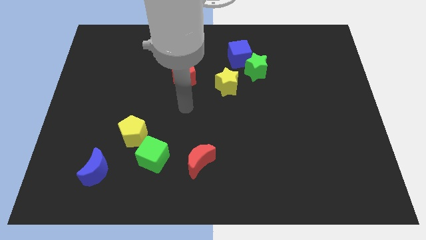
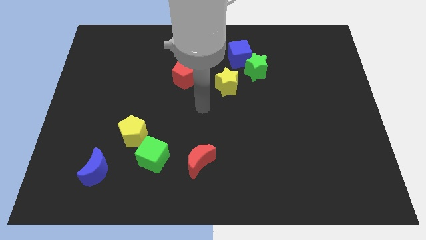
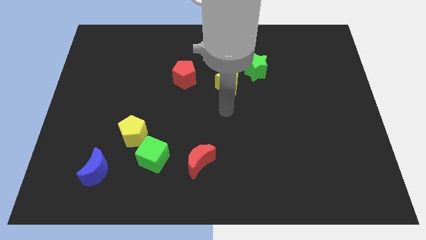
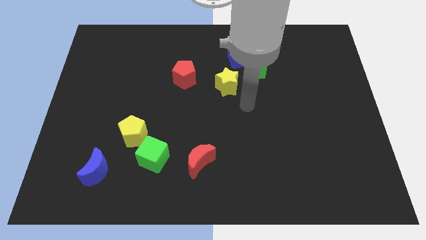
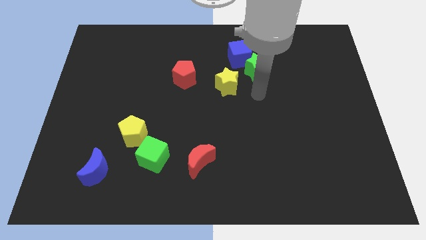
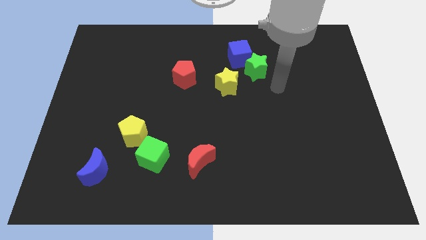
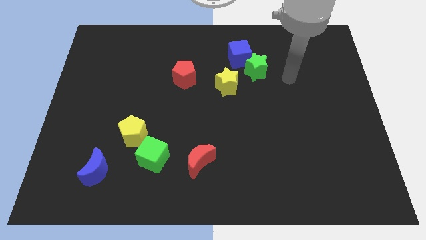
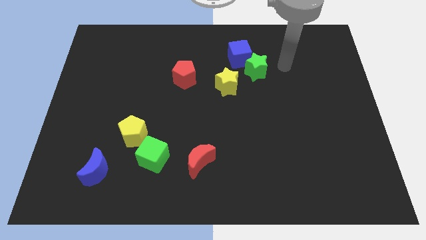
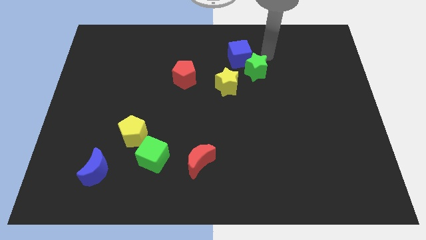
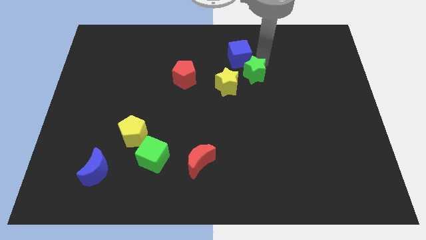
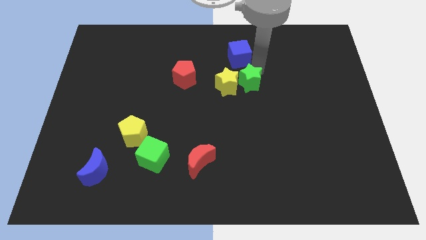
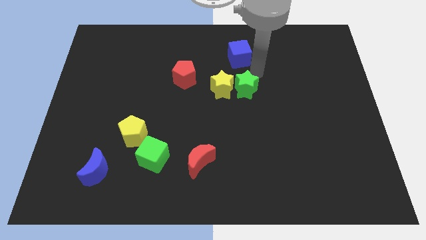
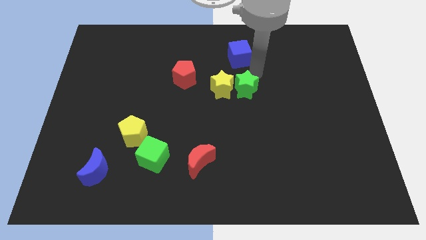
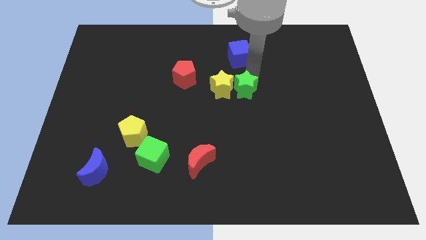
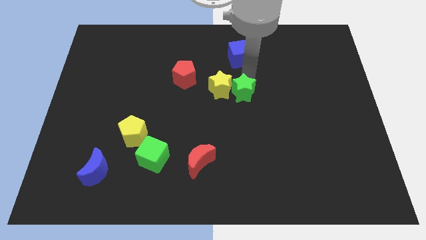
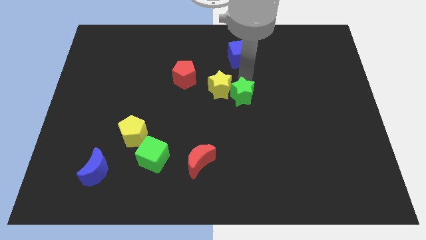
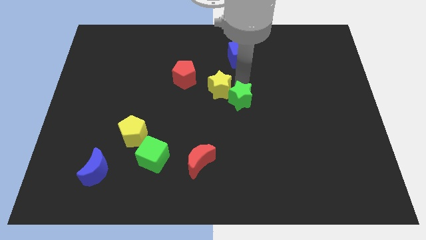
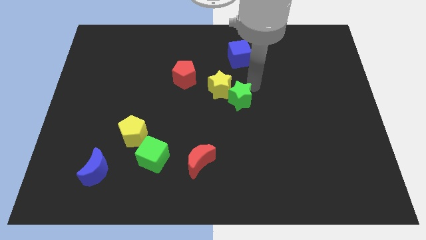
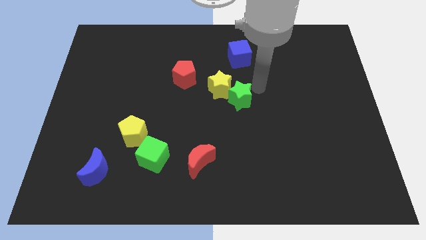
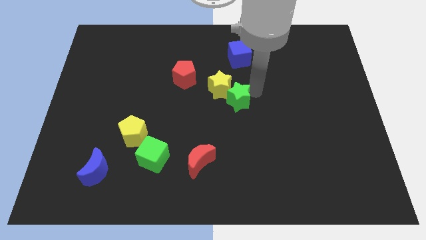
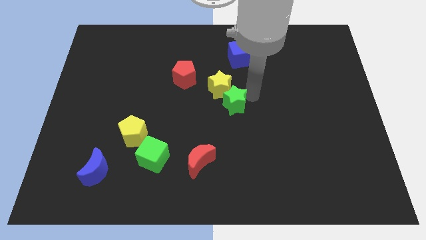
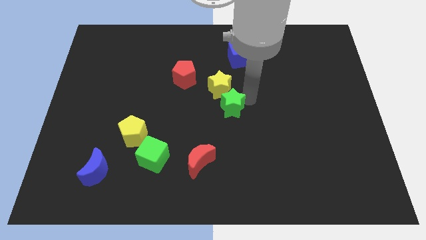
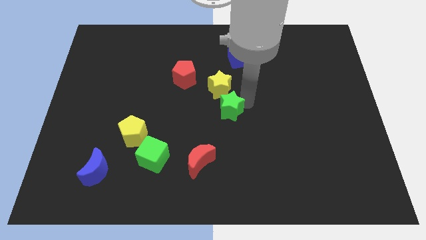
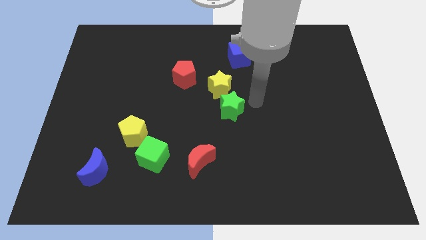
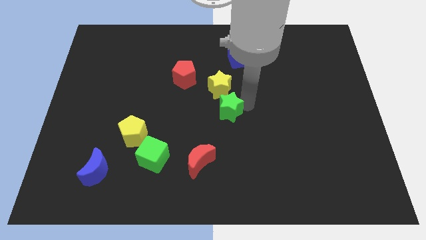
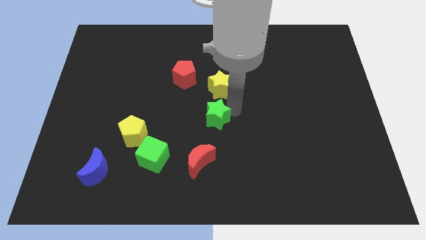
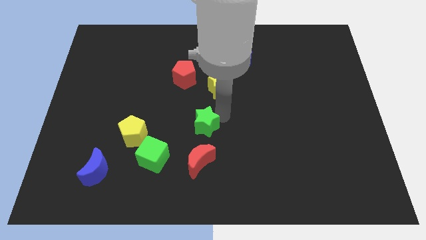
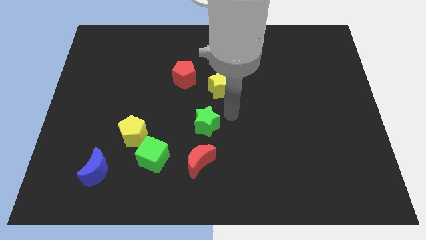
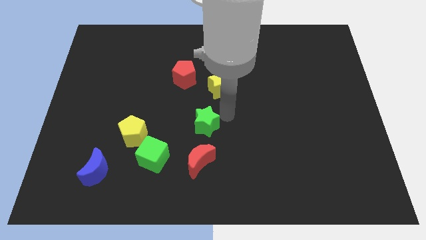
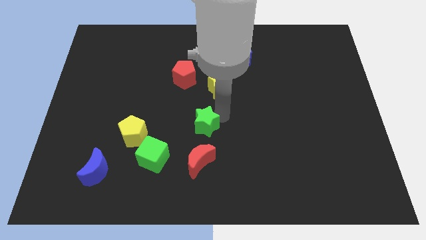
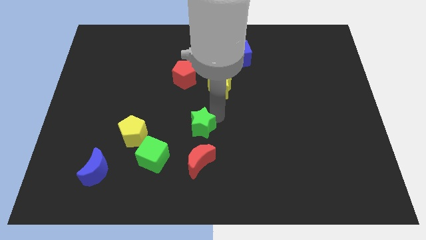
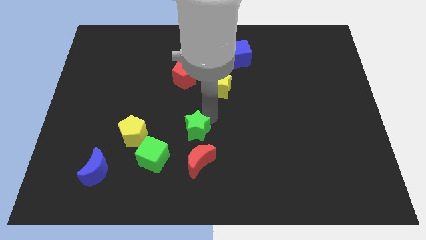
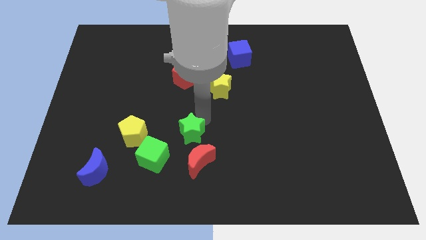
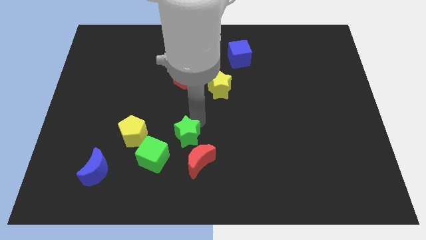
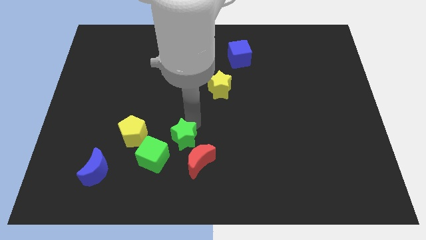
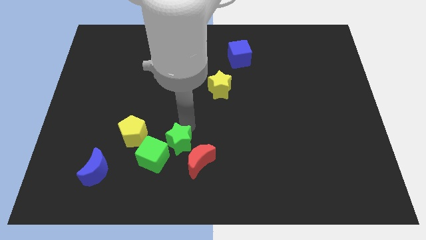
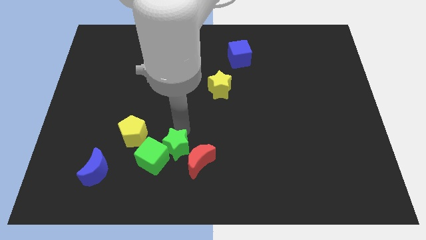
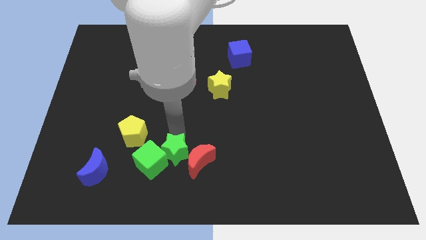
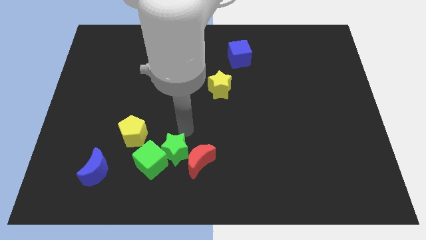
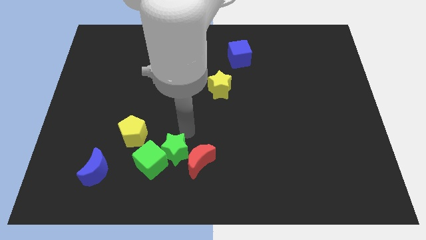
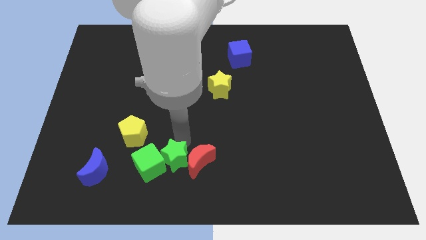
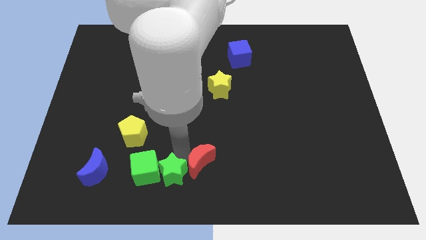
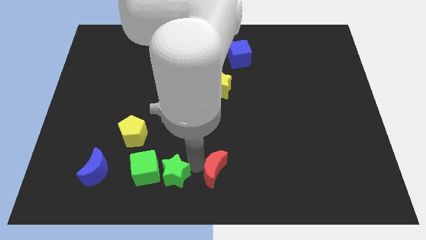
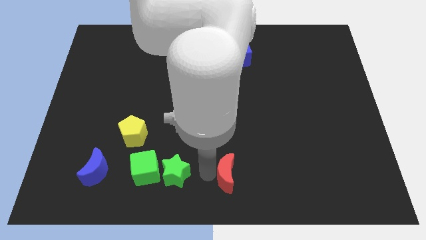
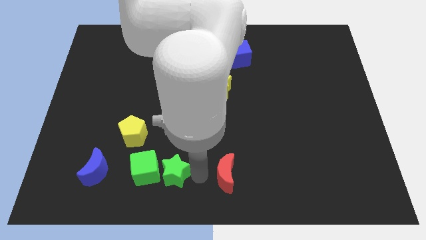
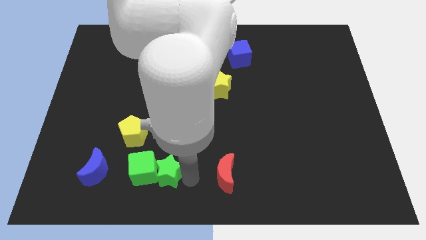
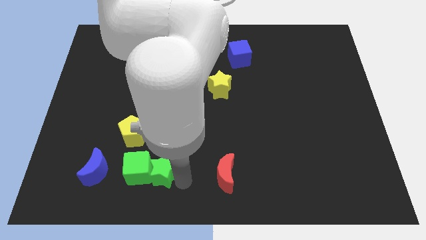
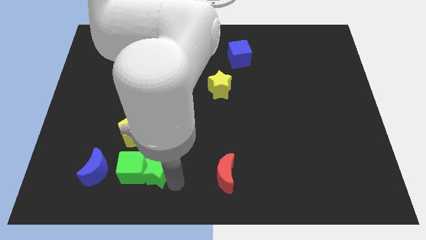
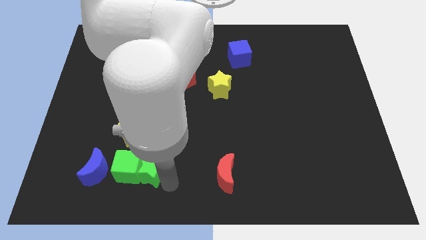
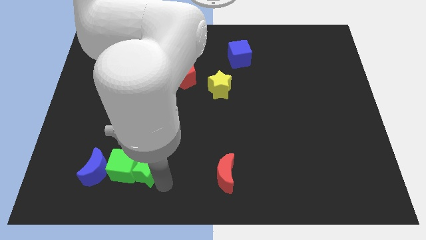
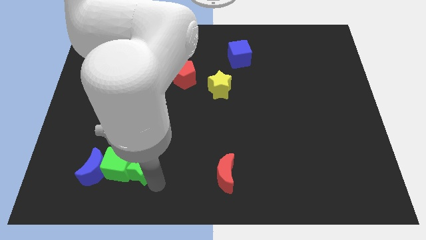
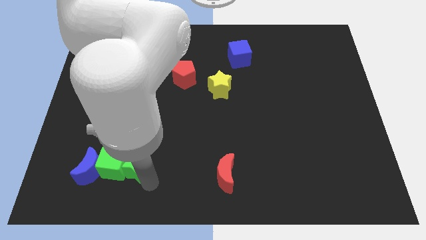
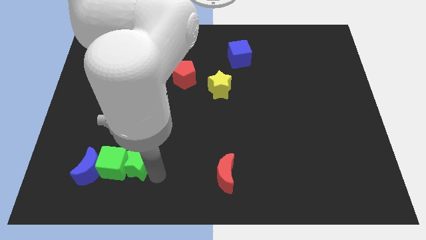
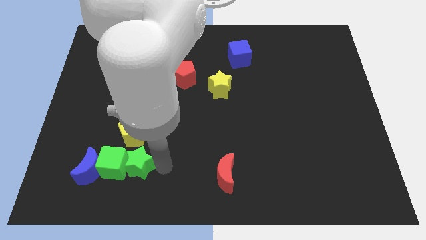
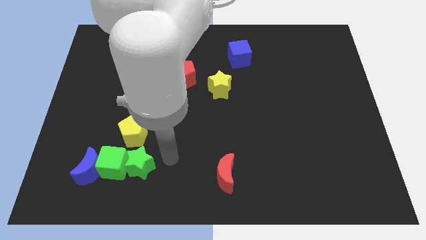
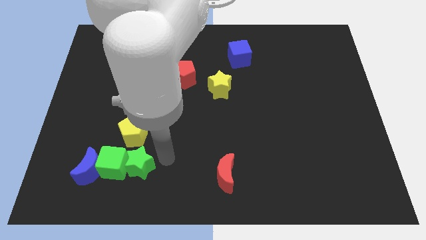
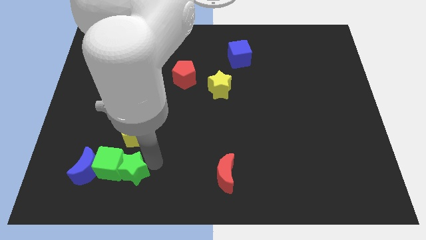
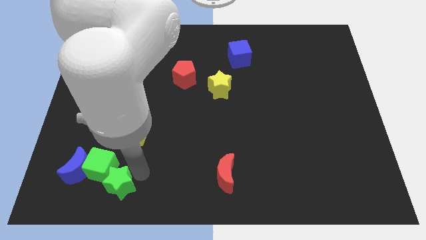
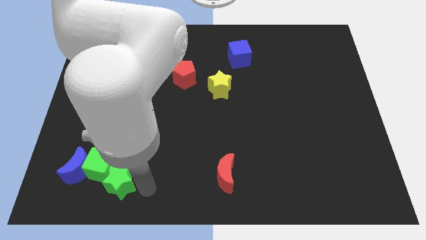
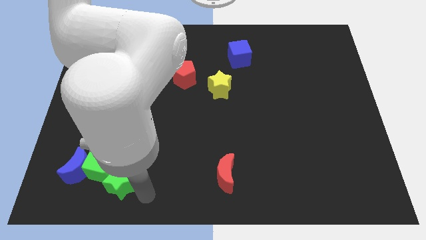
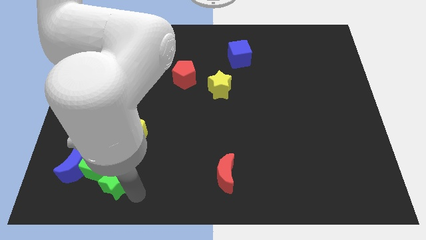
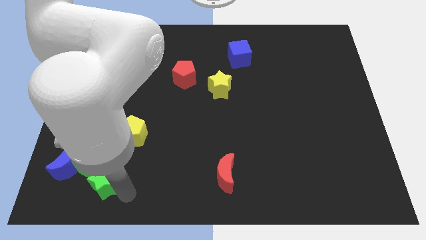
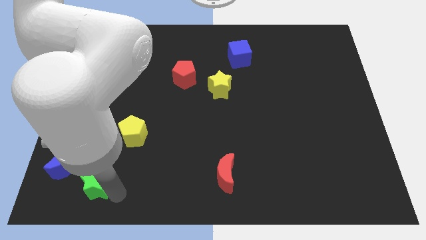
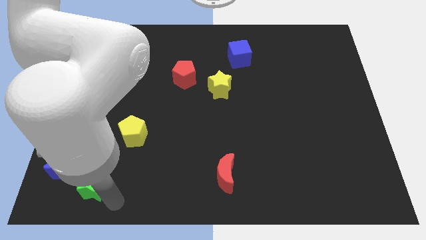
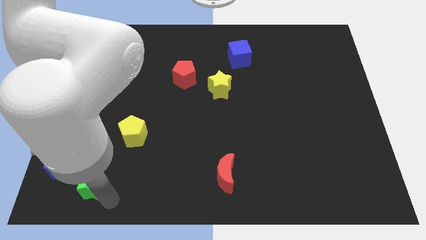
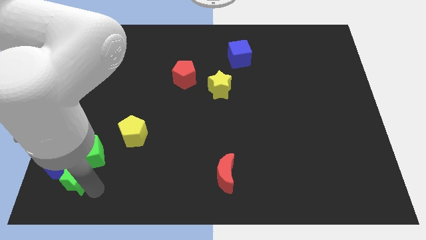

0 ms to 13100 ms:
move the green star to the blue moon

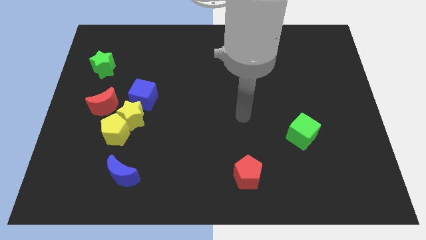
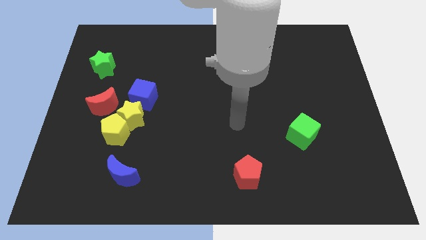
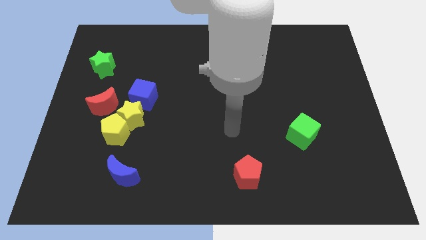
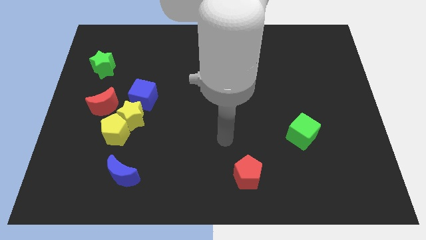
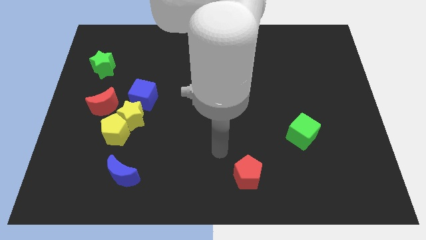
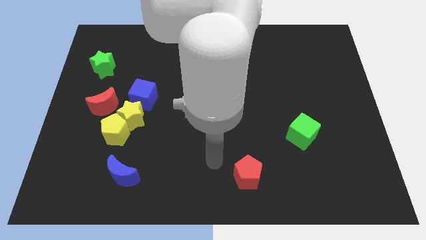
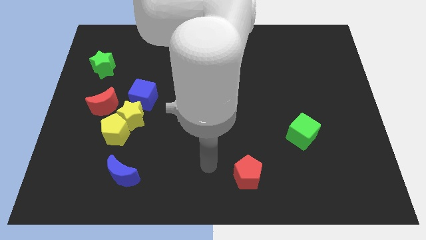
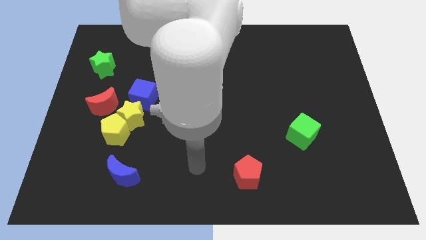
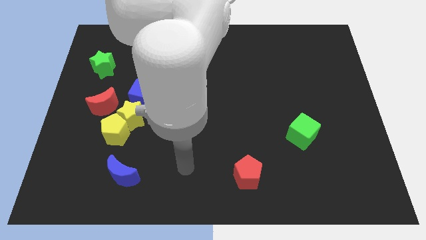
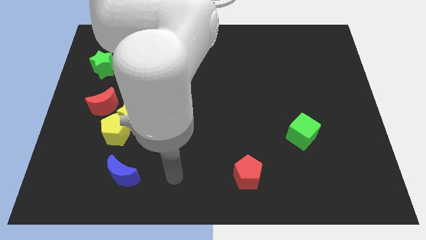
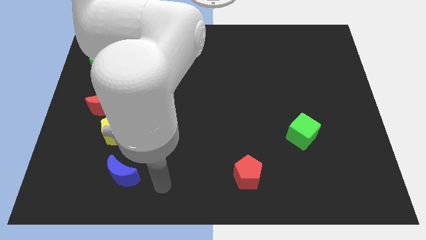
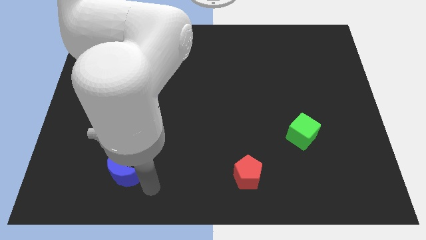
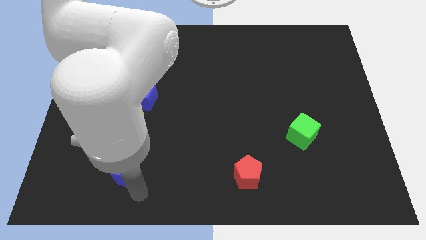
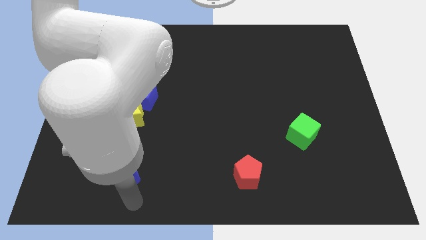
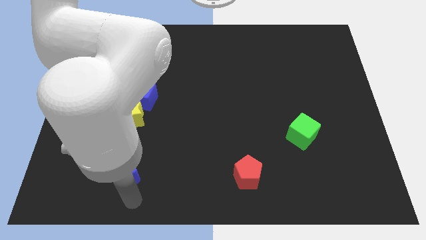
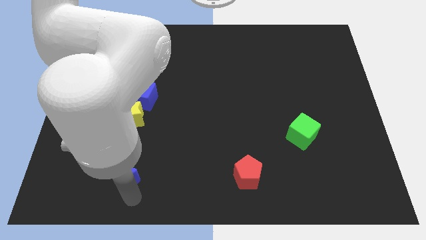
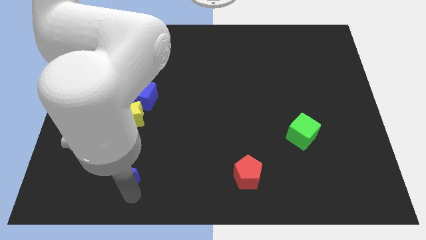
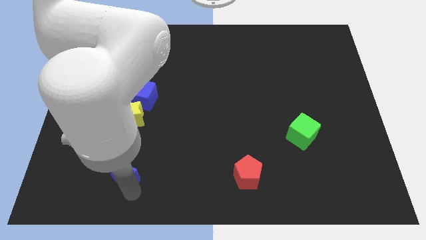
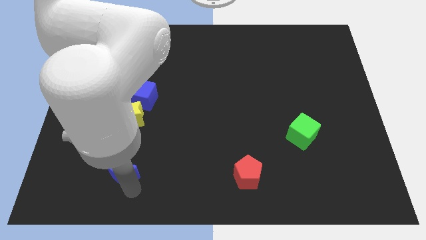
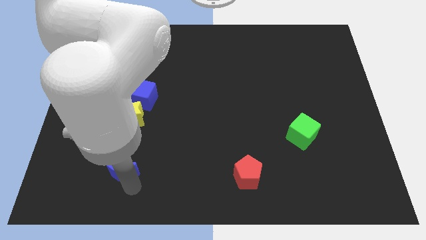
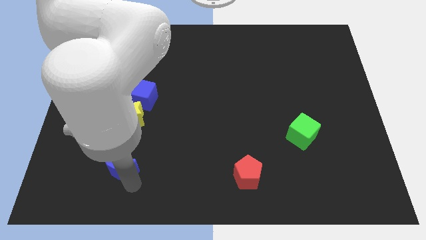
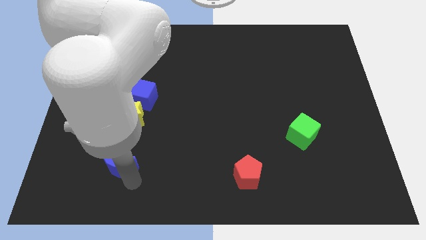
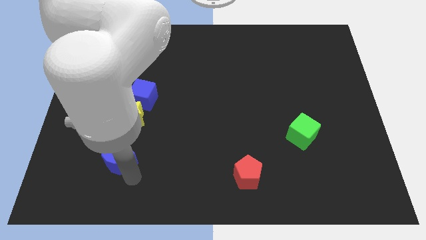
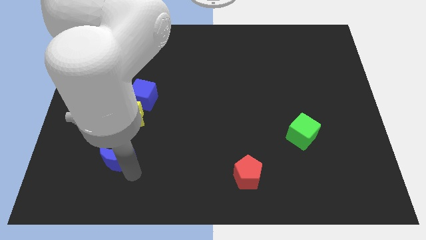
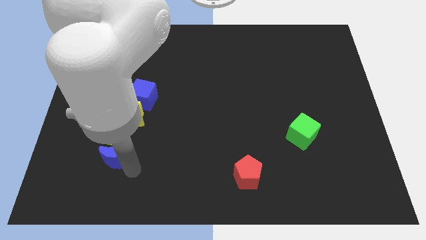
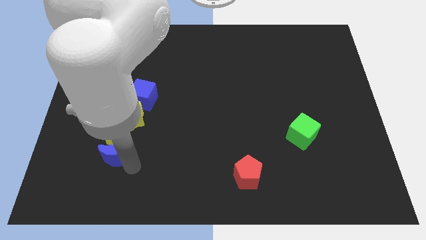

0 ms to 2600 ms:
push the blue moon to the yellow pentagon
